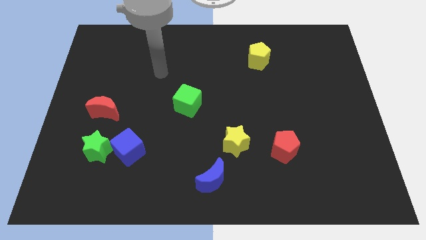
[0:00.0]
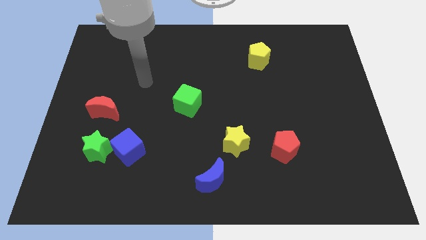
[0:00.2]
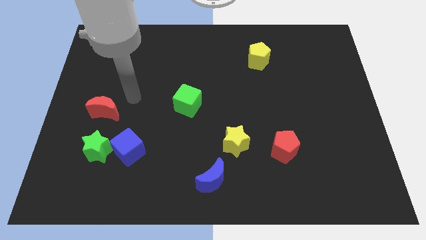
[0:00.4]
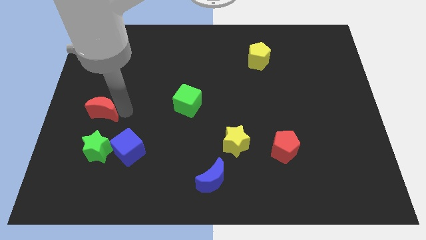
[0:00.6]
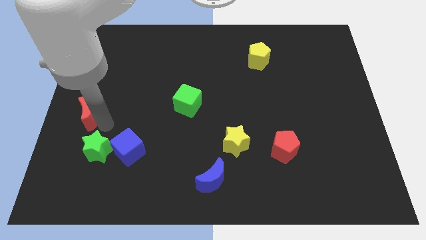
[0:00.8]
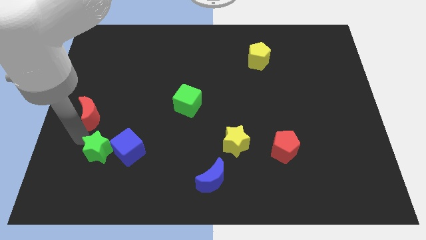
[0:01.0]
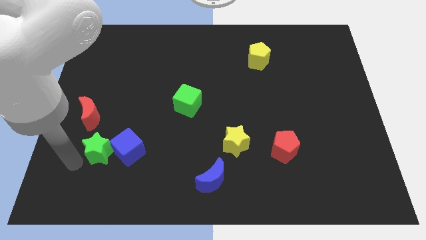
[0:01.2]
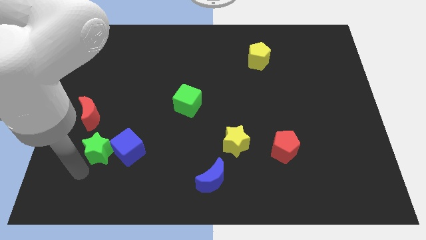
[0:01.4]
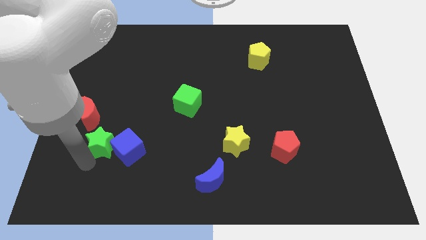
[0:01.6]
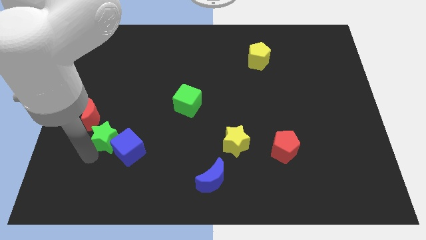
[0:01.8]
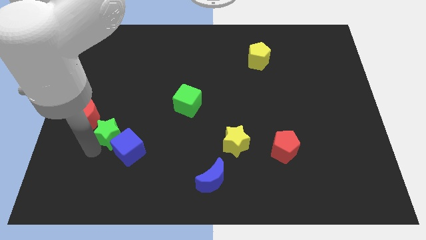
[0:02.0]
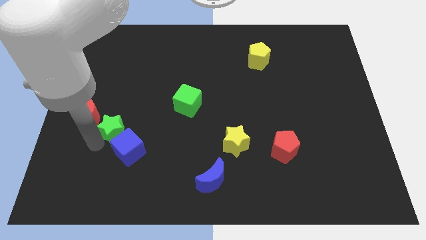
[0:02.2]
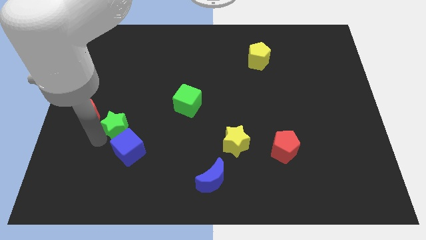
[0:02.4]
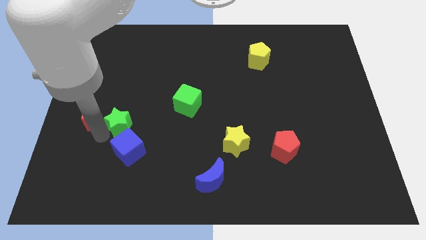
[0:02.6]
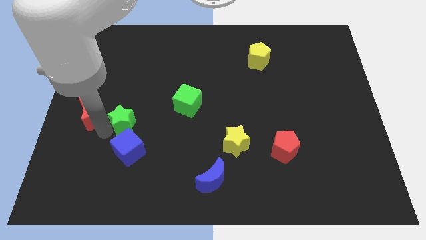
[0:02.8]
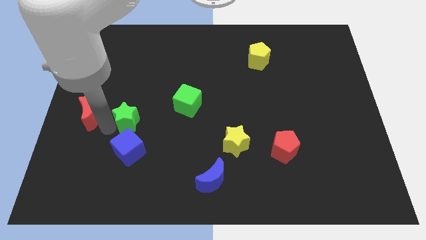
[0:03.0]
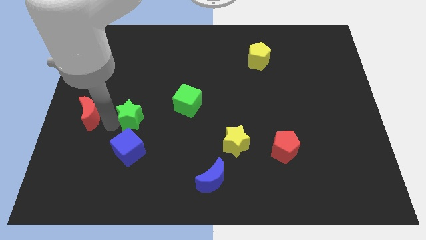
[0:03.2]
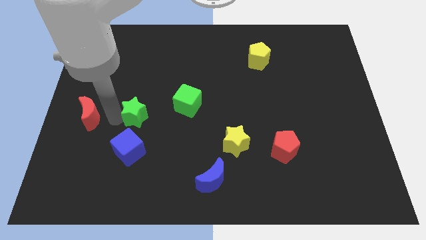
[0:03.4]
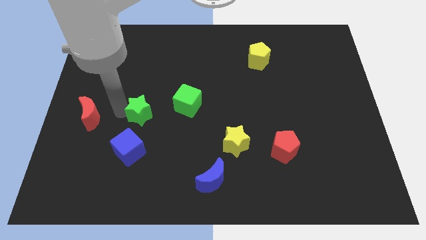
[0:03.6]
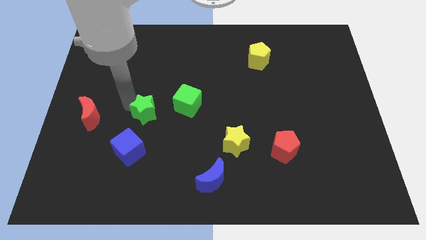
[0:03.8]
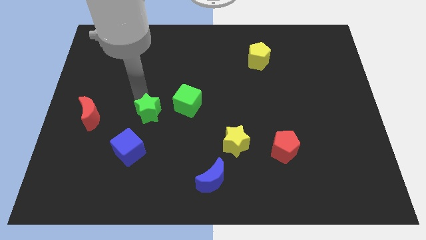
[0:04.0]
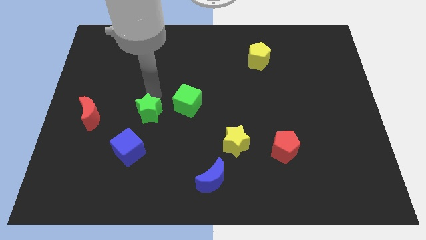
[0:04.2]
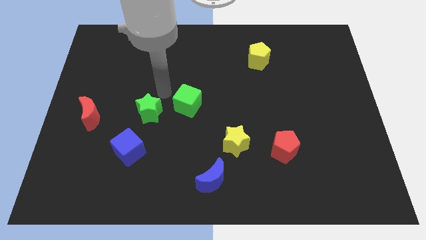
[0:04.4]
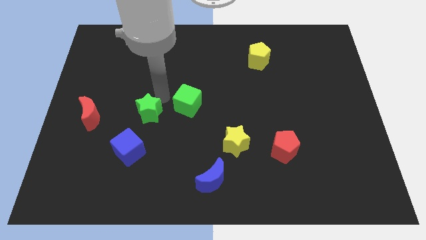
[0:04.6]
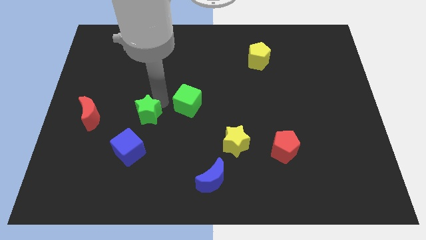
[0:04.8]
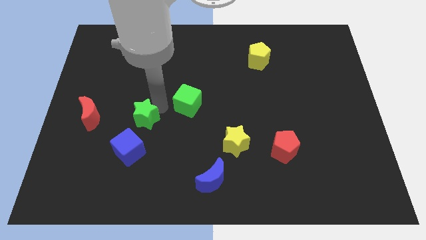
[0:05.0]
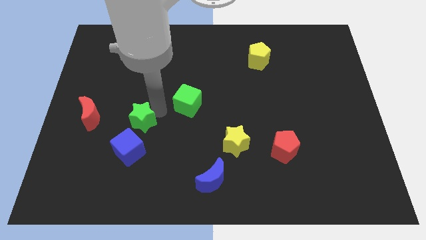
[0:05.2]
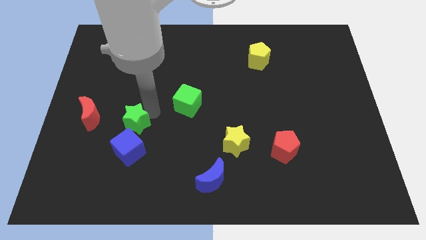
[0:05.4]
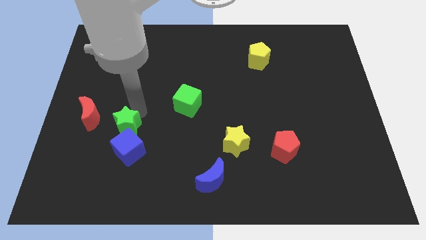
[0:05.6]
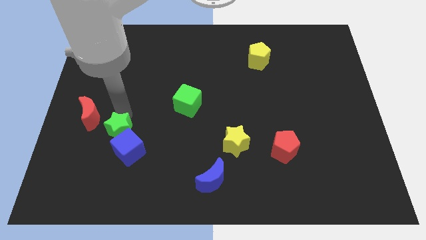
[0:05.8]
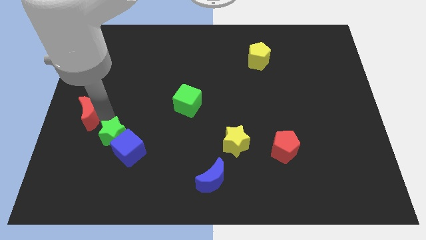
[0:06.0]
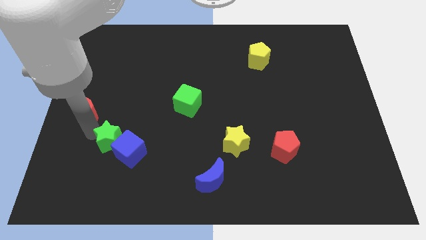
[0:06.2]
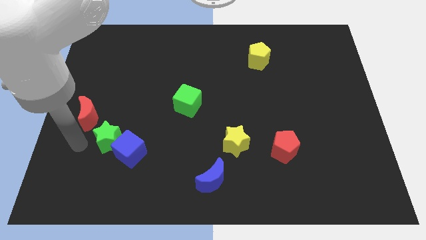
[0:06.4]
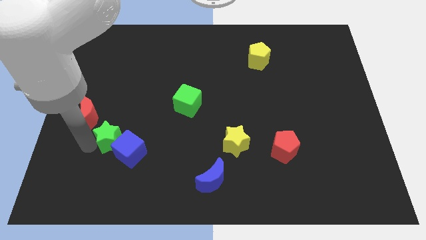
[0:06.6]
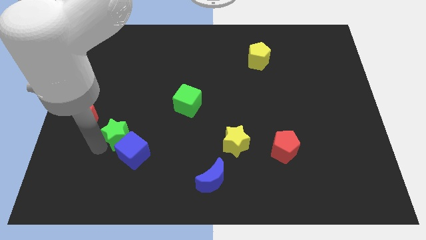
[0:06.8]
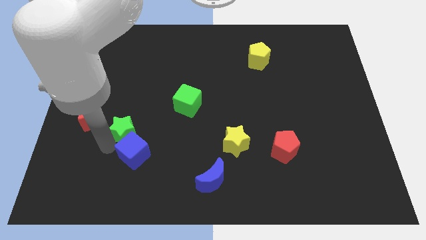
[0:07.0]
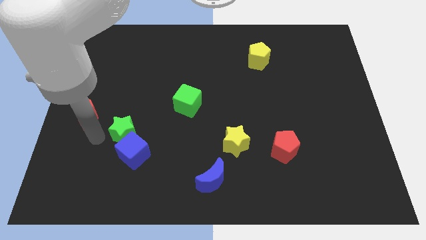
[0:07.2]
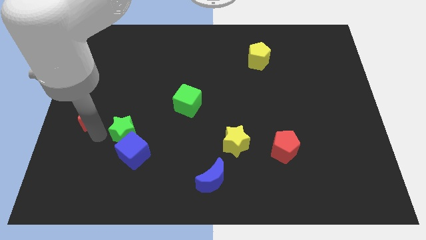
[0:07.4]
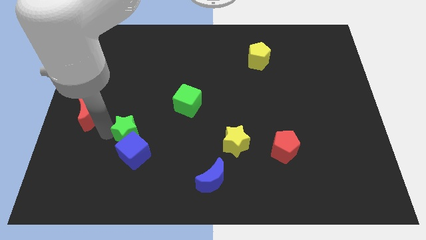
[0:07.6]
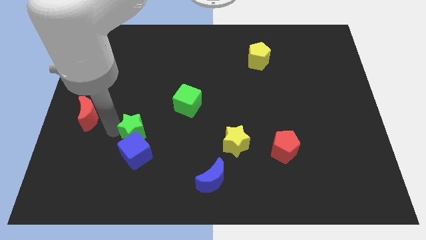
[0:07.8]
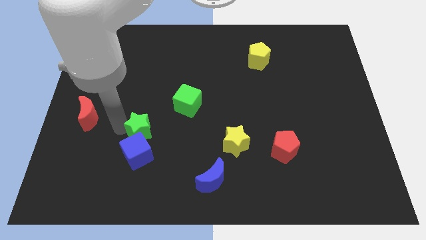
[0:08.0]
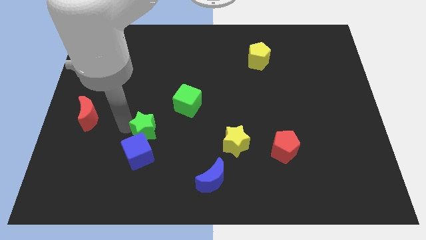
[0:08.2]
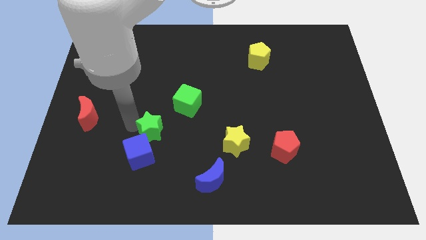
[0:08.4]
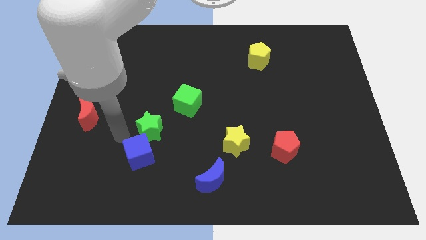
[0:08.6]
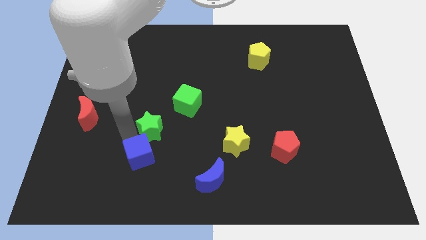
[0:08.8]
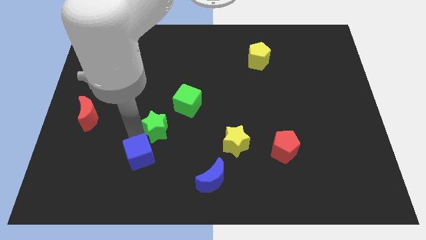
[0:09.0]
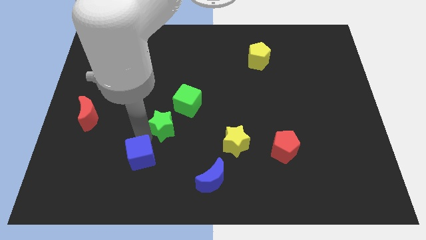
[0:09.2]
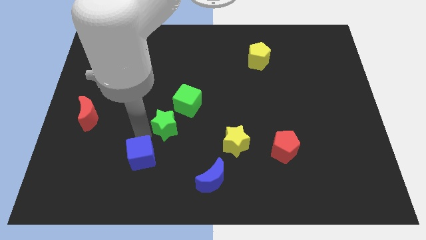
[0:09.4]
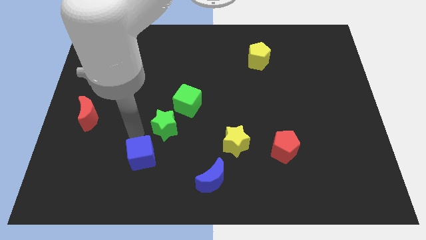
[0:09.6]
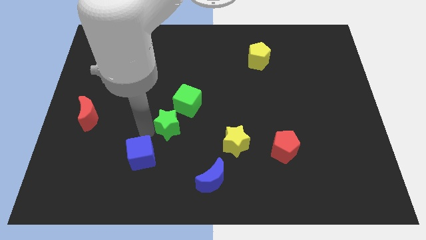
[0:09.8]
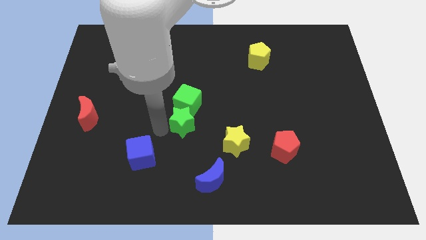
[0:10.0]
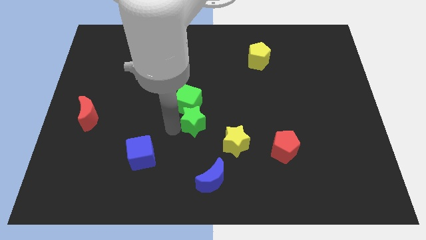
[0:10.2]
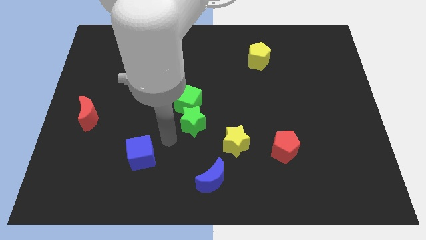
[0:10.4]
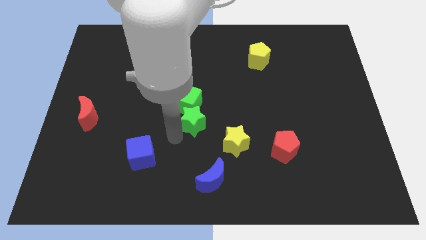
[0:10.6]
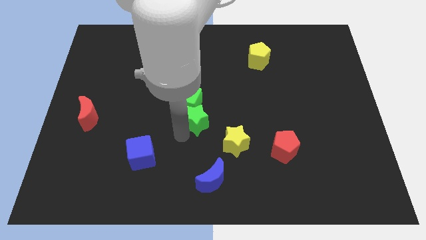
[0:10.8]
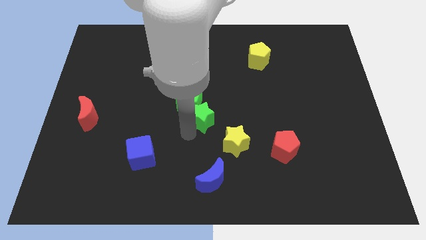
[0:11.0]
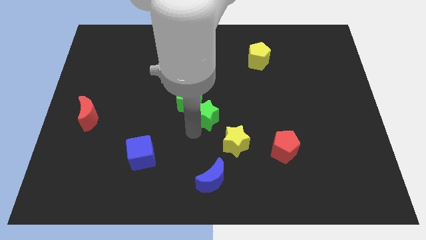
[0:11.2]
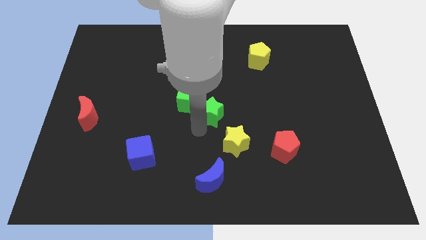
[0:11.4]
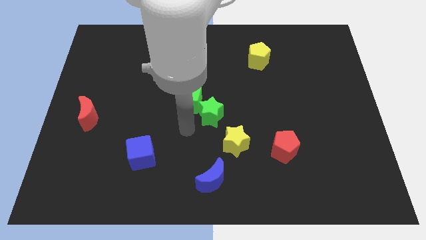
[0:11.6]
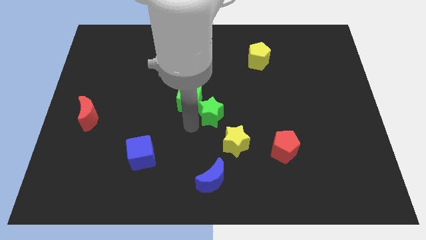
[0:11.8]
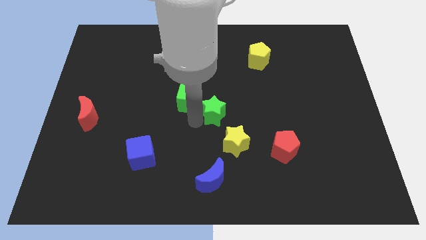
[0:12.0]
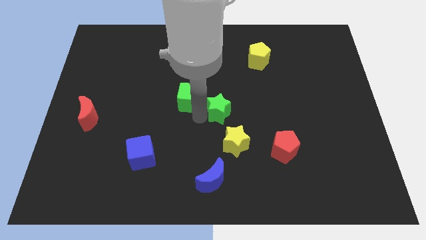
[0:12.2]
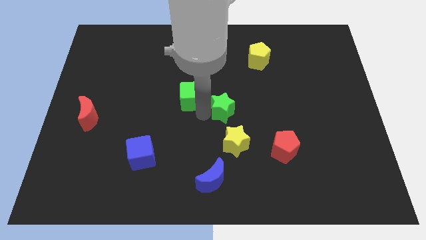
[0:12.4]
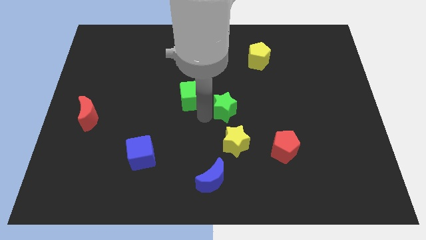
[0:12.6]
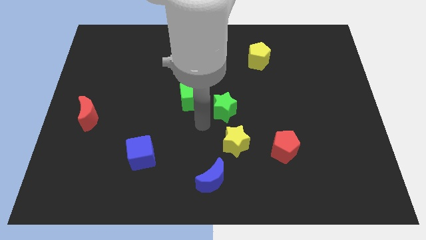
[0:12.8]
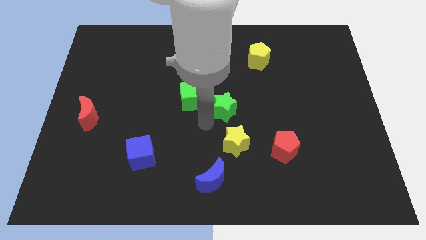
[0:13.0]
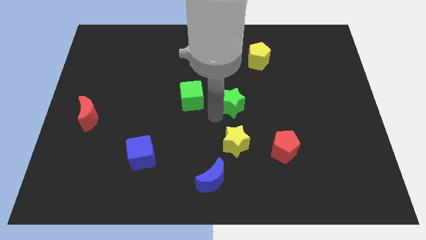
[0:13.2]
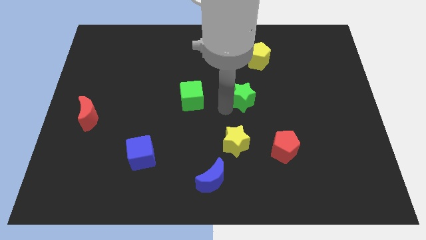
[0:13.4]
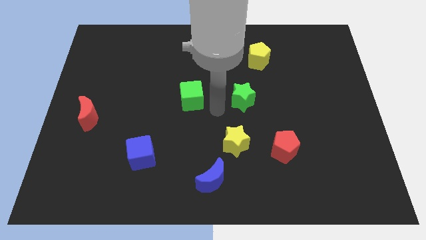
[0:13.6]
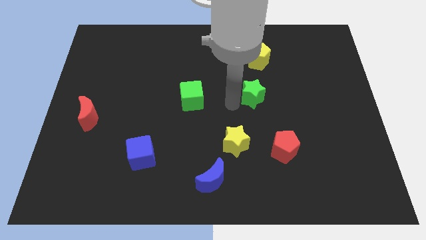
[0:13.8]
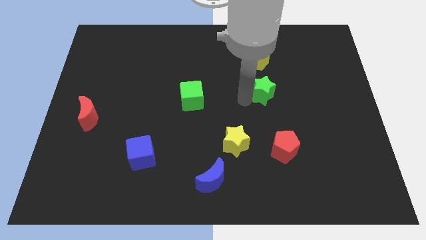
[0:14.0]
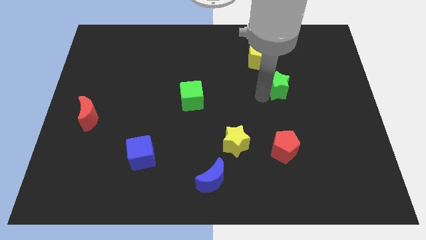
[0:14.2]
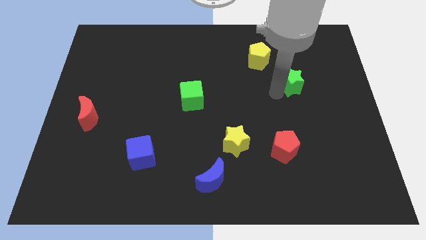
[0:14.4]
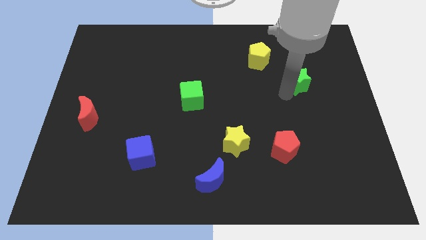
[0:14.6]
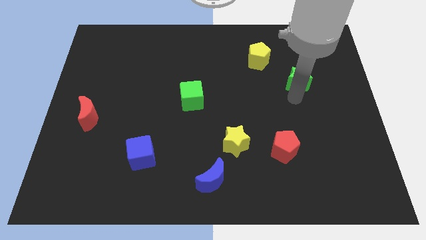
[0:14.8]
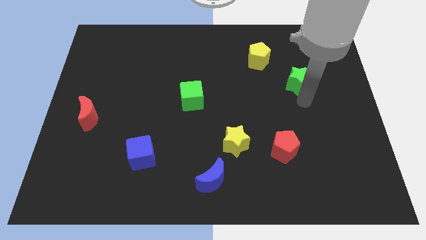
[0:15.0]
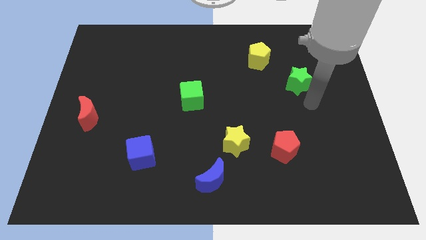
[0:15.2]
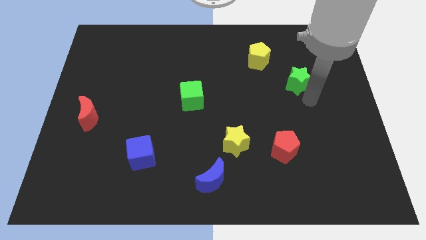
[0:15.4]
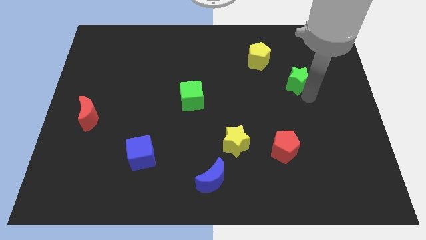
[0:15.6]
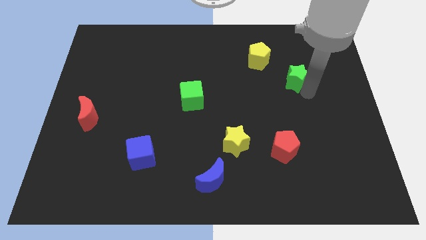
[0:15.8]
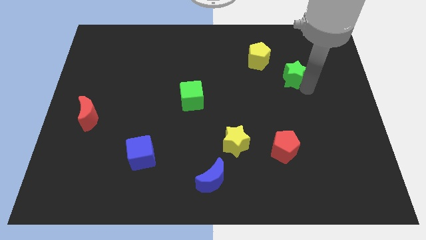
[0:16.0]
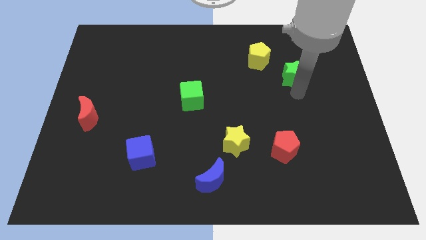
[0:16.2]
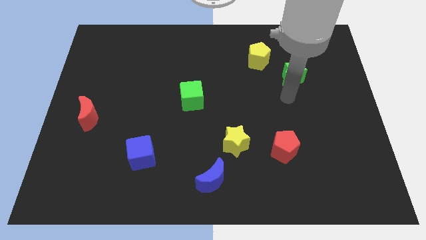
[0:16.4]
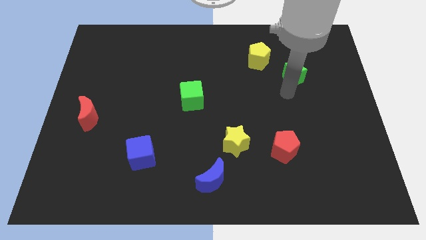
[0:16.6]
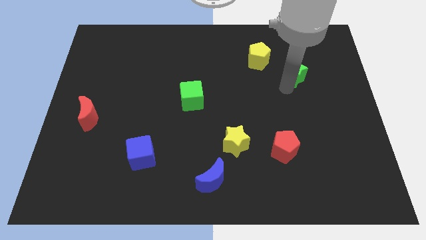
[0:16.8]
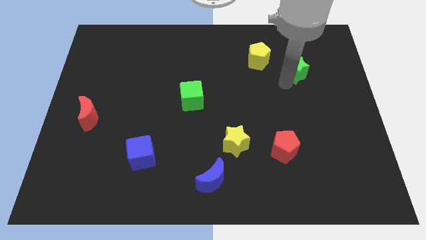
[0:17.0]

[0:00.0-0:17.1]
push the green star right of the yellow pentagon
